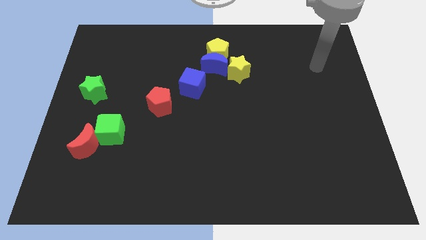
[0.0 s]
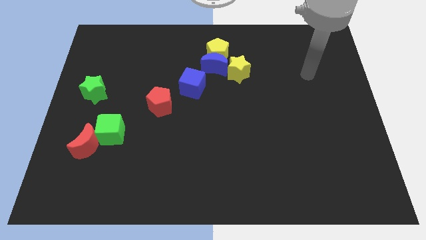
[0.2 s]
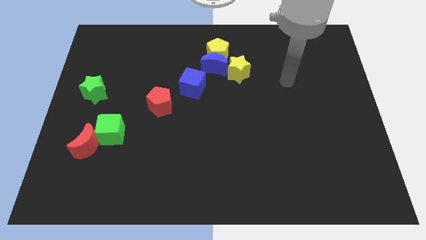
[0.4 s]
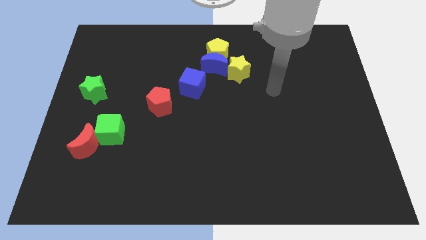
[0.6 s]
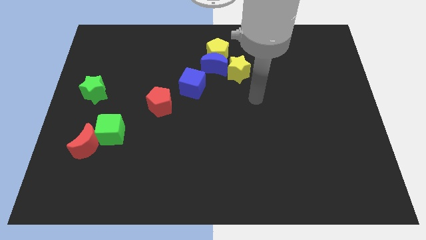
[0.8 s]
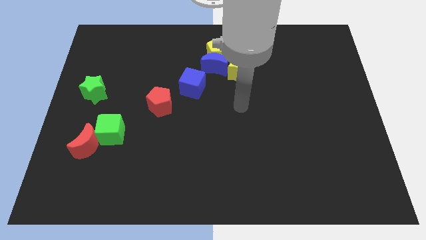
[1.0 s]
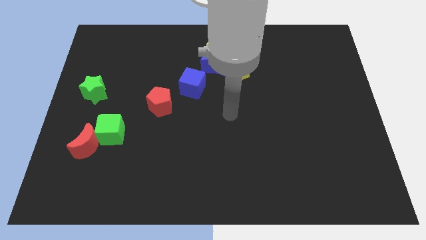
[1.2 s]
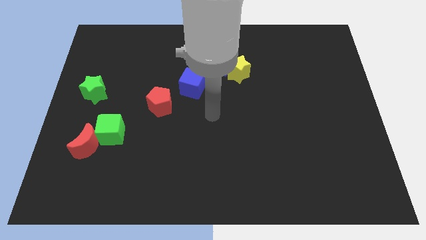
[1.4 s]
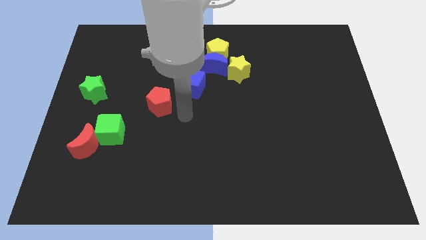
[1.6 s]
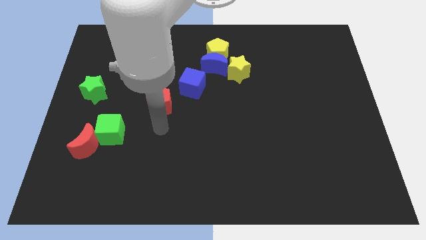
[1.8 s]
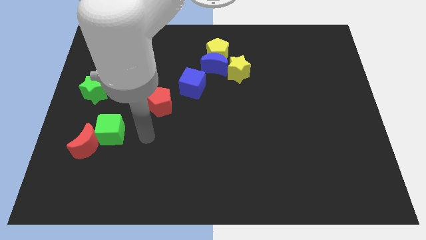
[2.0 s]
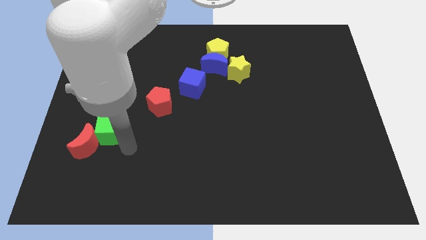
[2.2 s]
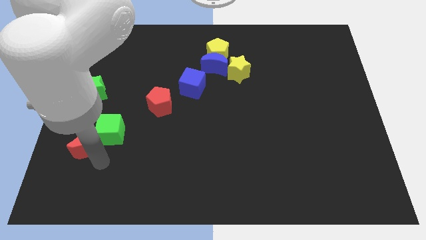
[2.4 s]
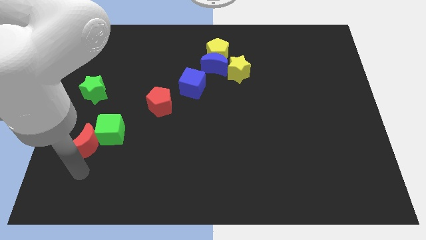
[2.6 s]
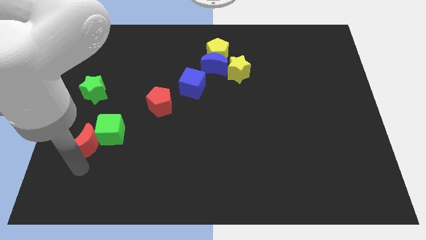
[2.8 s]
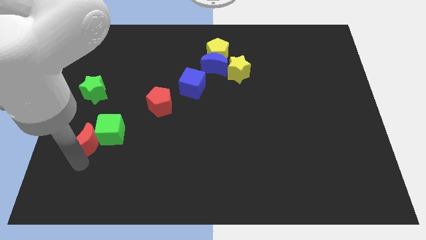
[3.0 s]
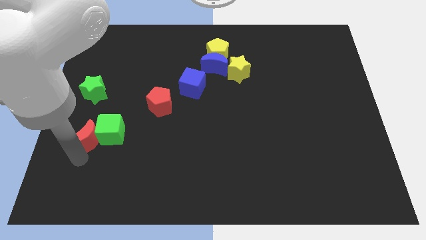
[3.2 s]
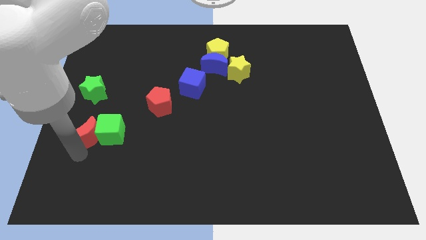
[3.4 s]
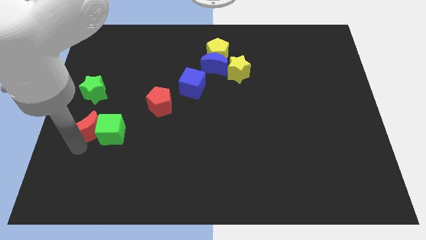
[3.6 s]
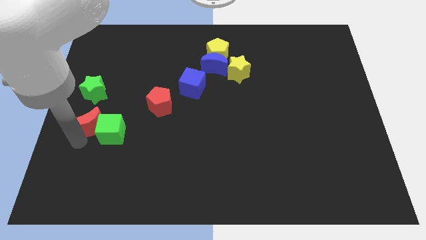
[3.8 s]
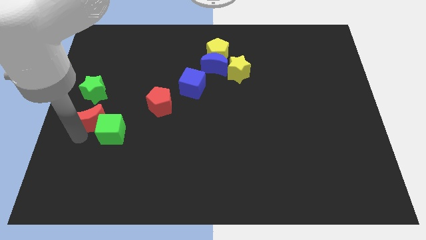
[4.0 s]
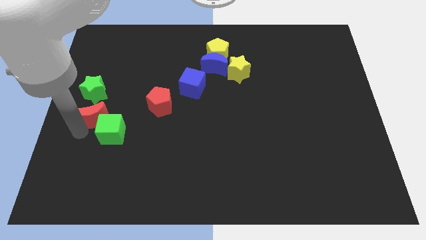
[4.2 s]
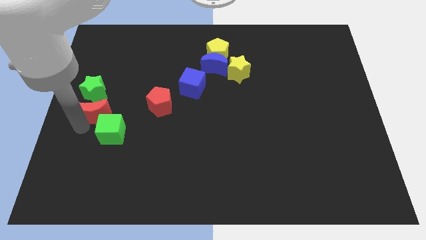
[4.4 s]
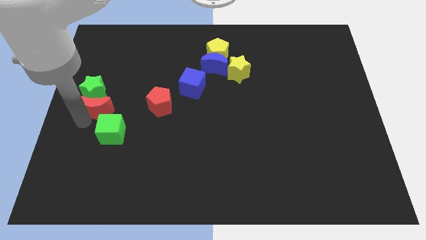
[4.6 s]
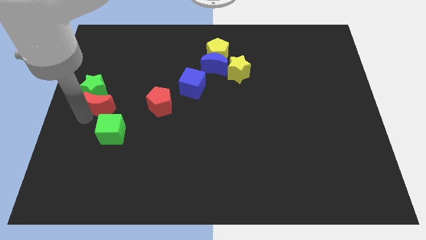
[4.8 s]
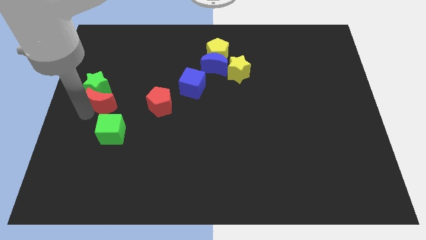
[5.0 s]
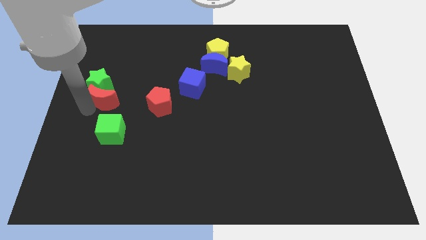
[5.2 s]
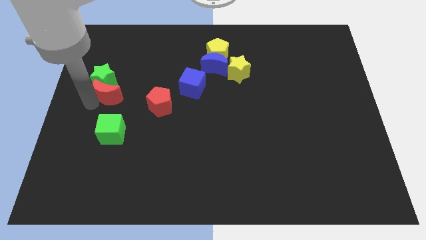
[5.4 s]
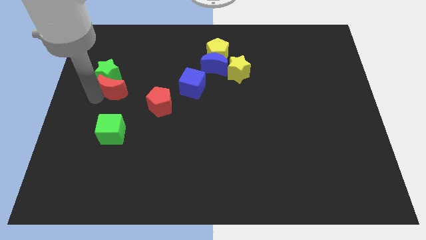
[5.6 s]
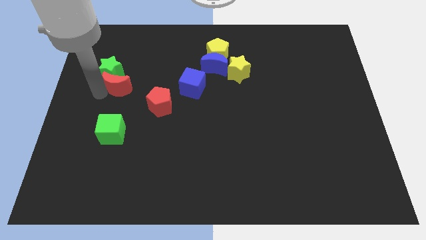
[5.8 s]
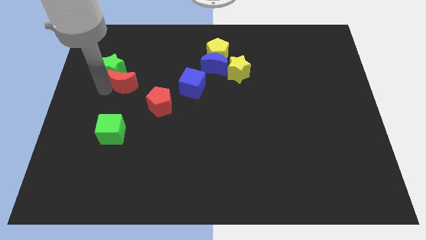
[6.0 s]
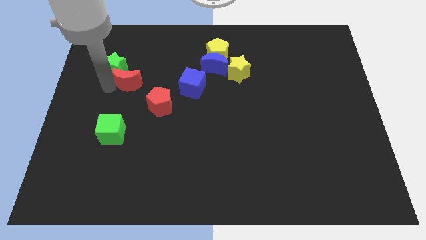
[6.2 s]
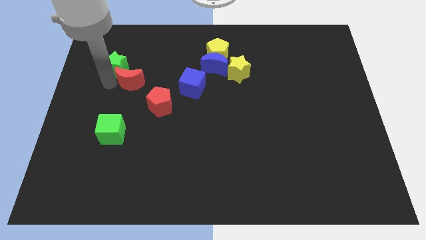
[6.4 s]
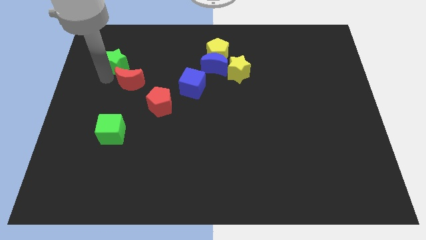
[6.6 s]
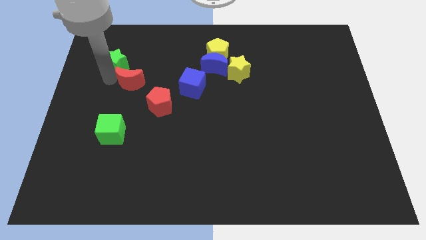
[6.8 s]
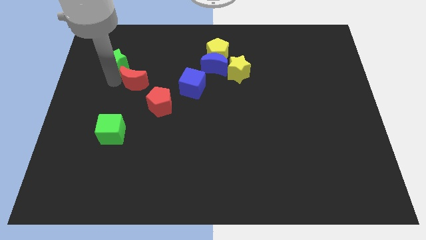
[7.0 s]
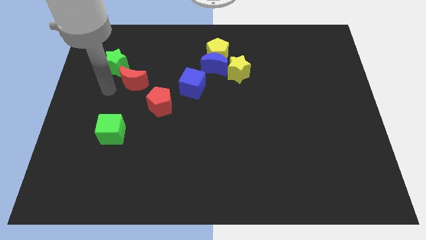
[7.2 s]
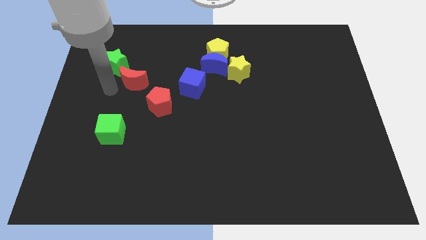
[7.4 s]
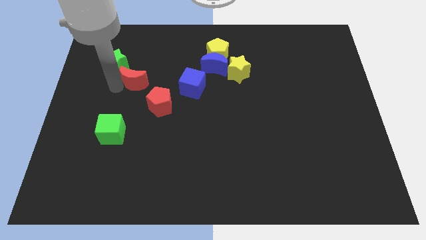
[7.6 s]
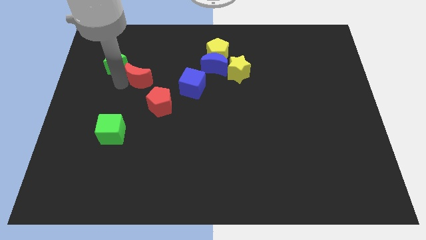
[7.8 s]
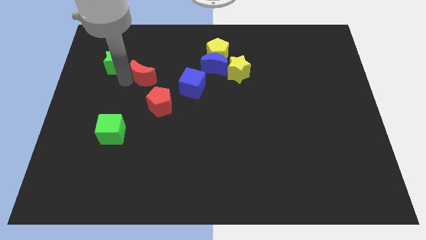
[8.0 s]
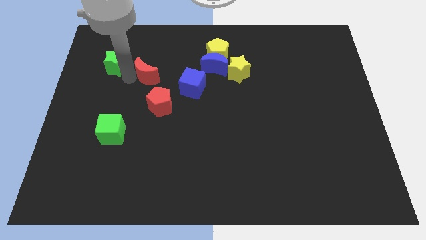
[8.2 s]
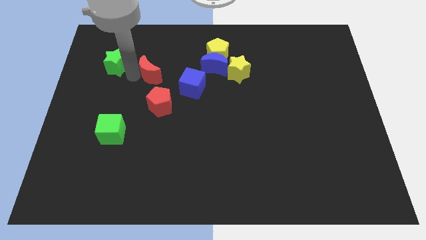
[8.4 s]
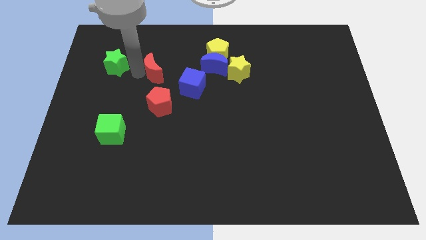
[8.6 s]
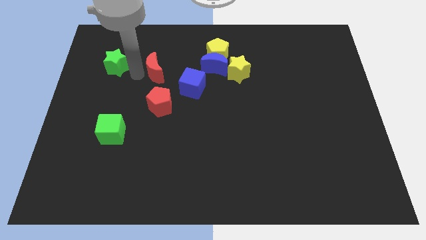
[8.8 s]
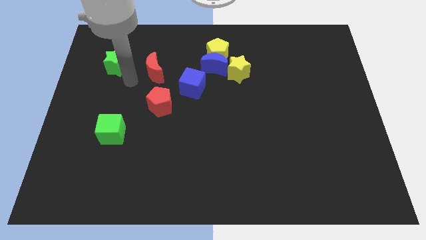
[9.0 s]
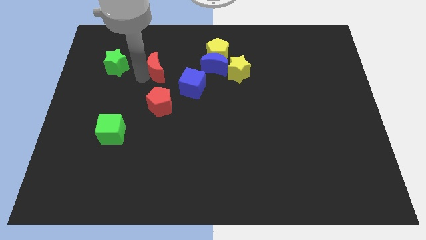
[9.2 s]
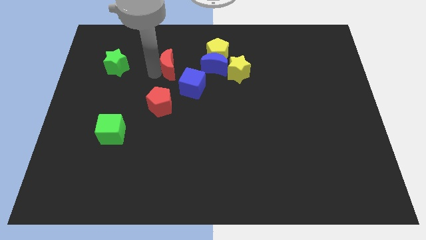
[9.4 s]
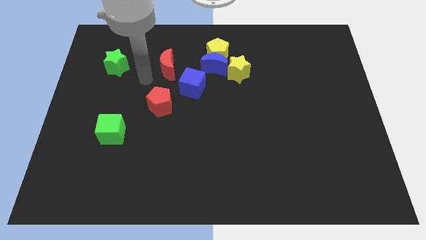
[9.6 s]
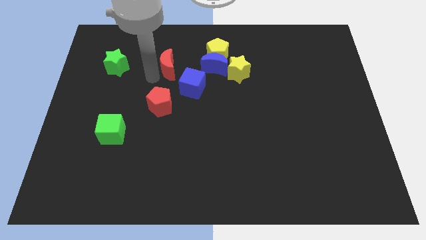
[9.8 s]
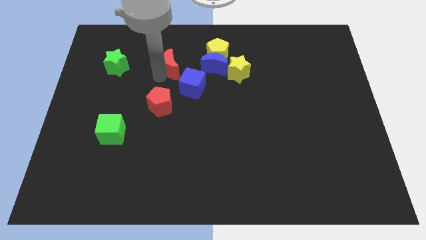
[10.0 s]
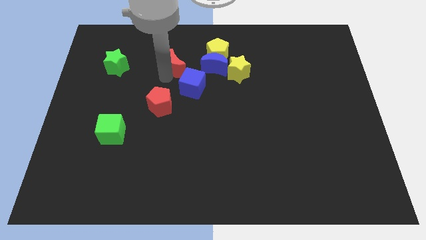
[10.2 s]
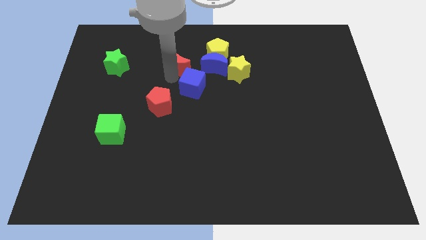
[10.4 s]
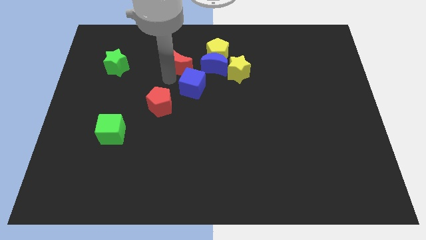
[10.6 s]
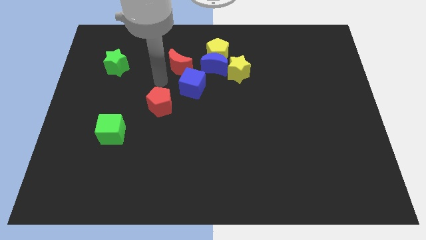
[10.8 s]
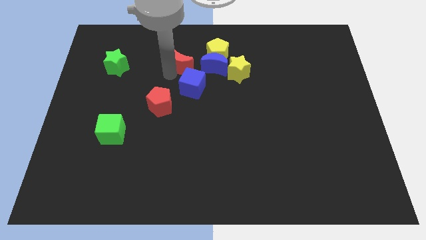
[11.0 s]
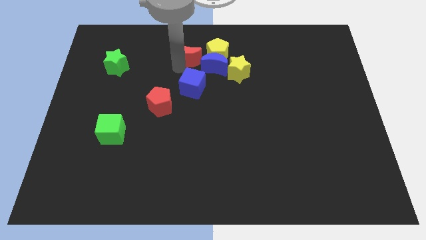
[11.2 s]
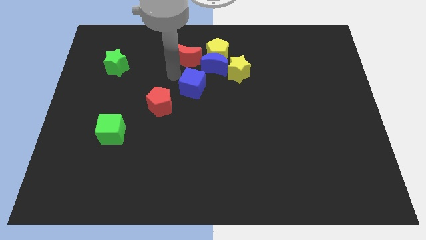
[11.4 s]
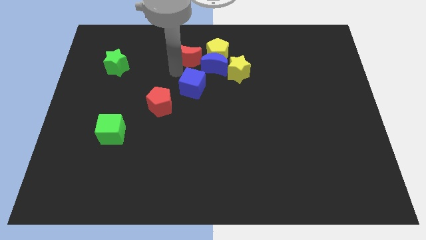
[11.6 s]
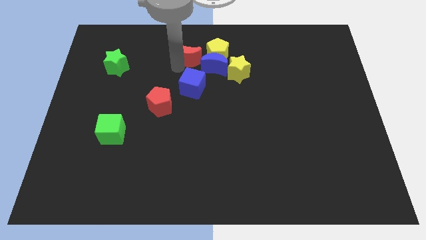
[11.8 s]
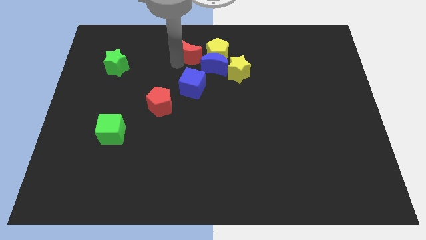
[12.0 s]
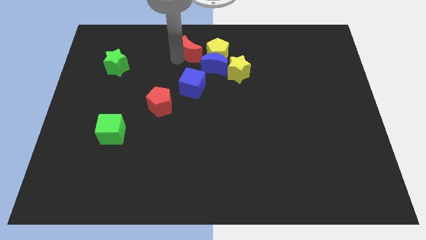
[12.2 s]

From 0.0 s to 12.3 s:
slide the red moon to the towards your base

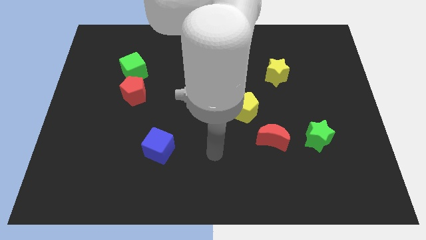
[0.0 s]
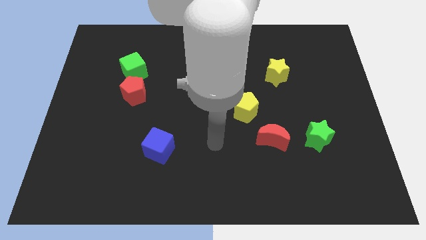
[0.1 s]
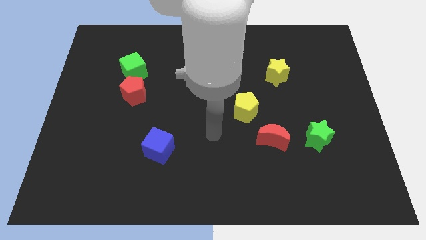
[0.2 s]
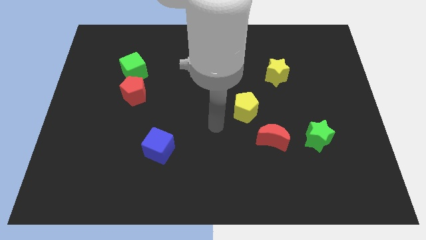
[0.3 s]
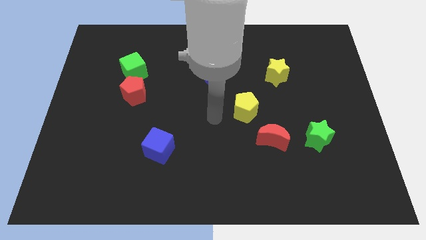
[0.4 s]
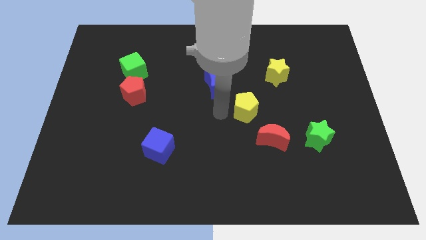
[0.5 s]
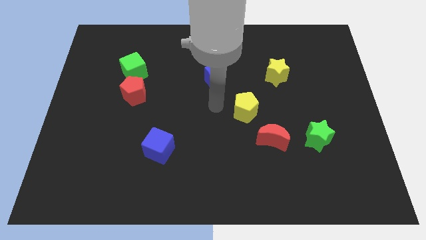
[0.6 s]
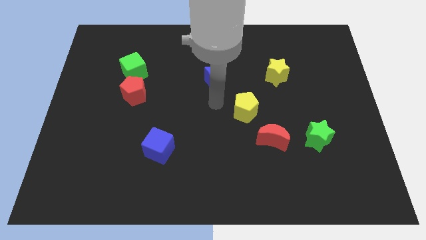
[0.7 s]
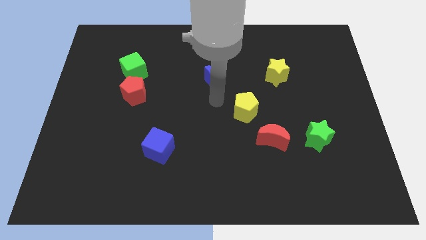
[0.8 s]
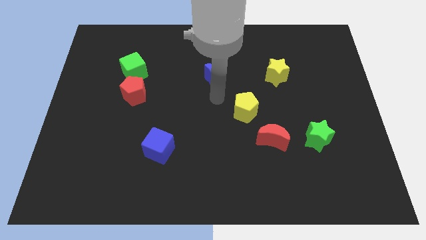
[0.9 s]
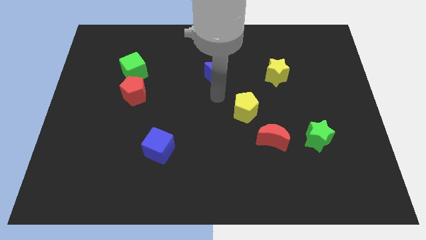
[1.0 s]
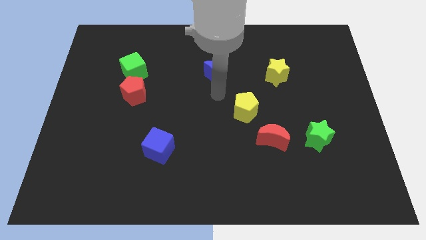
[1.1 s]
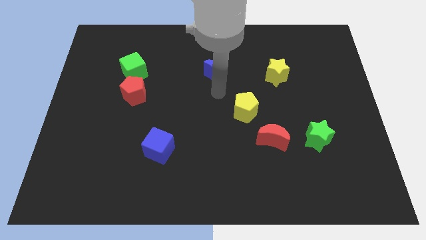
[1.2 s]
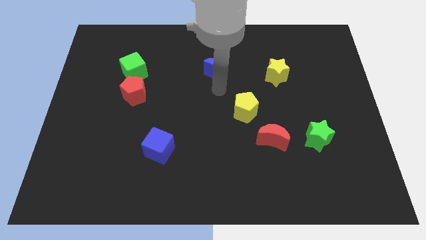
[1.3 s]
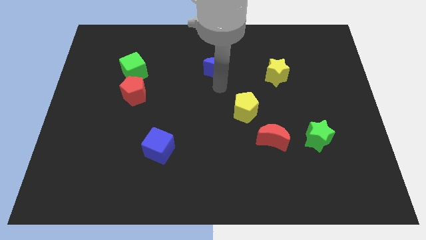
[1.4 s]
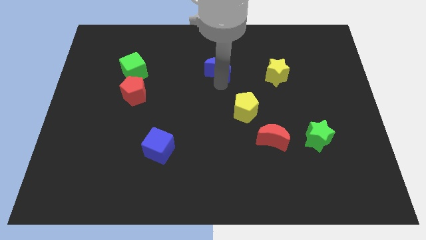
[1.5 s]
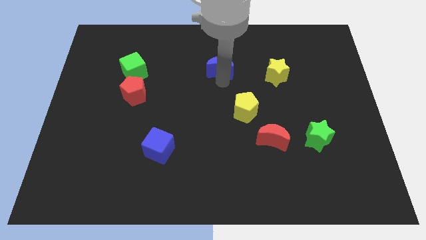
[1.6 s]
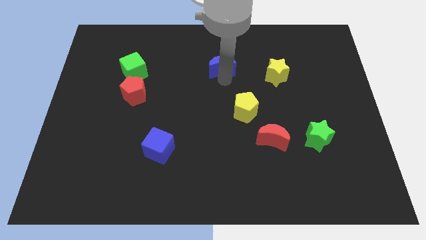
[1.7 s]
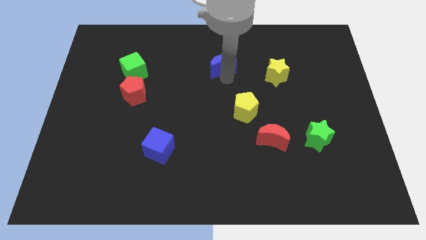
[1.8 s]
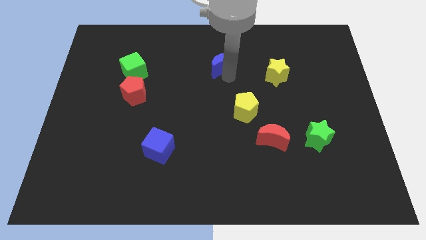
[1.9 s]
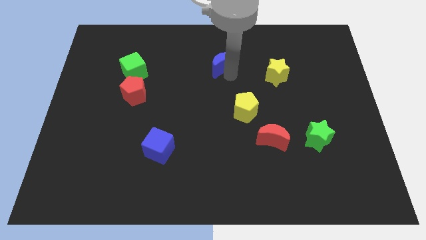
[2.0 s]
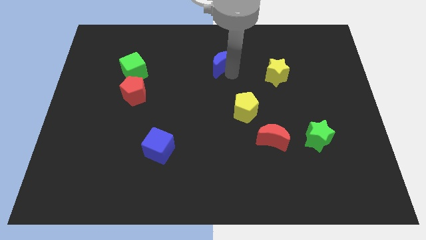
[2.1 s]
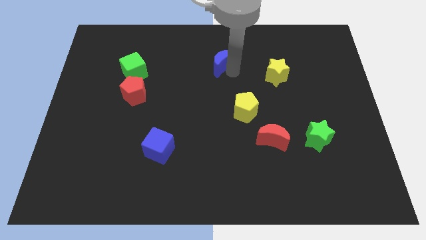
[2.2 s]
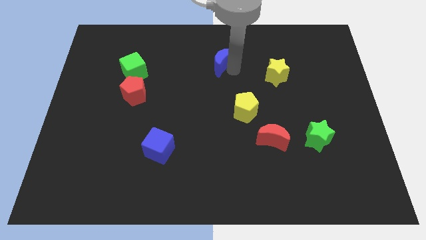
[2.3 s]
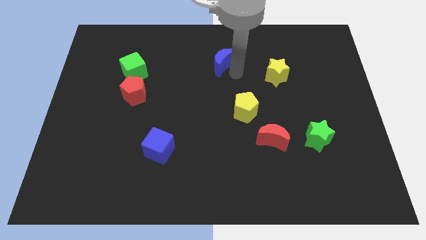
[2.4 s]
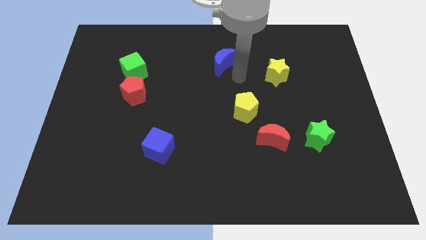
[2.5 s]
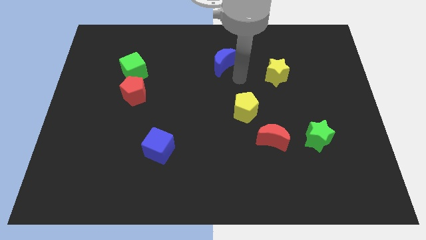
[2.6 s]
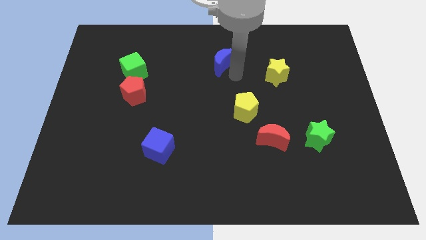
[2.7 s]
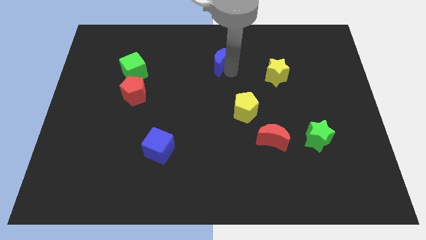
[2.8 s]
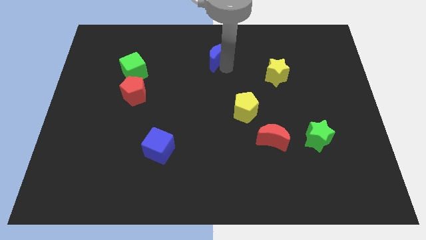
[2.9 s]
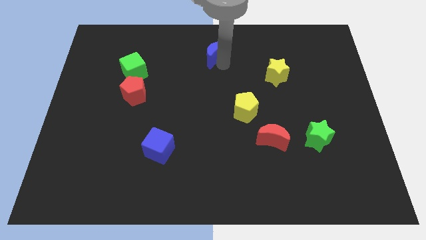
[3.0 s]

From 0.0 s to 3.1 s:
move the blue moon to the towards your base
